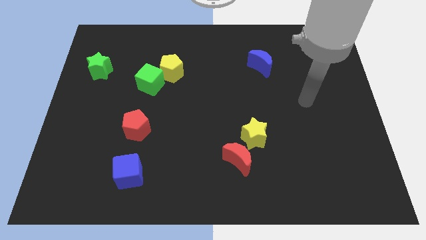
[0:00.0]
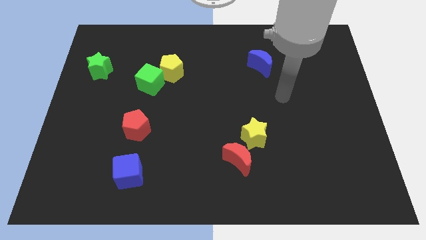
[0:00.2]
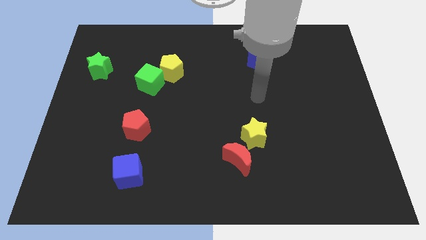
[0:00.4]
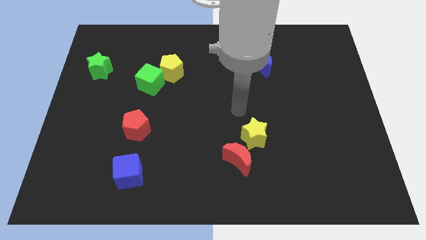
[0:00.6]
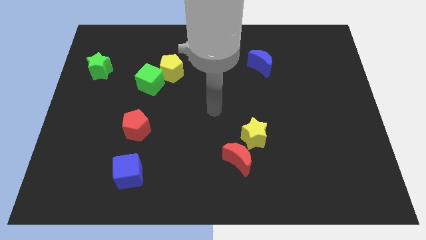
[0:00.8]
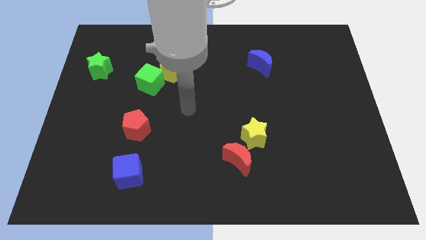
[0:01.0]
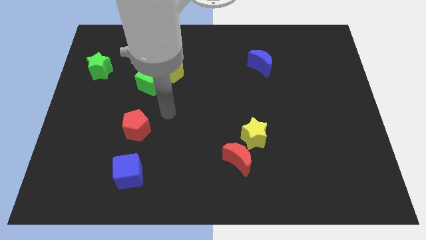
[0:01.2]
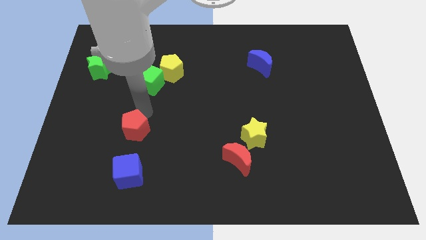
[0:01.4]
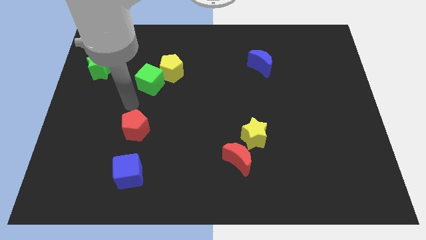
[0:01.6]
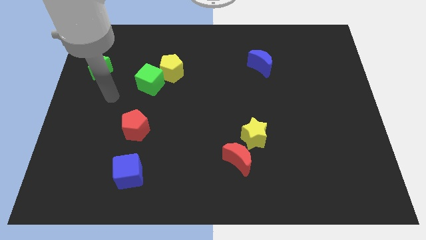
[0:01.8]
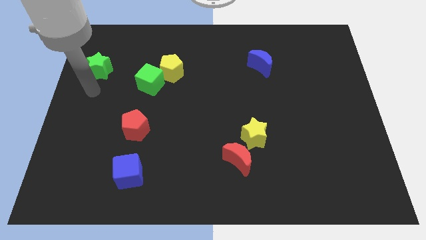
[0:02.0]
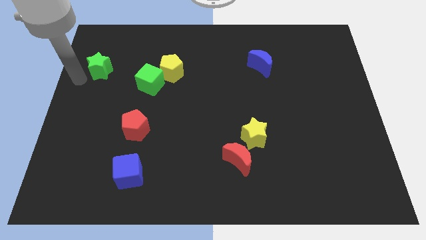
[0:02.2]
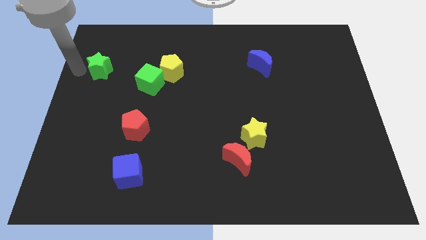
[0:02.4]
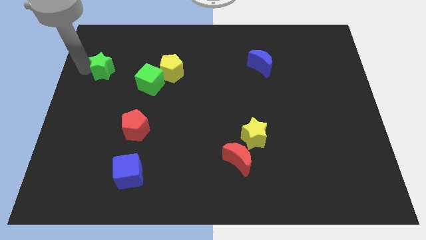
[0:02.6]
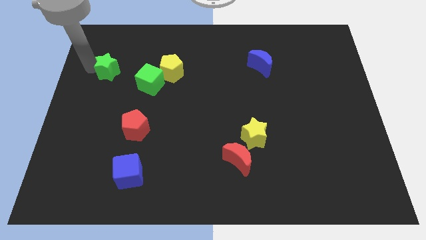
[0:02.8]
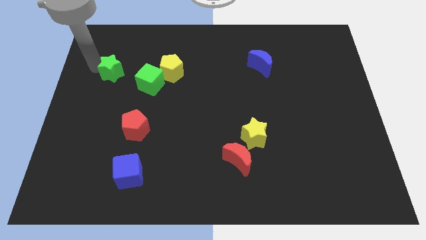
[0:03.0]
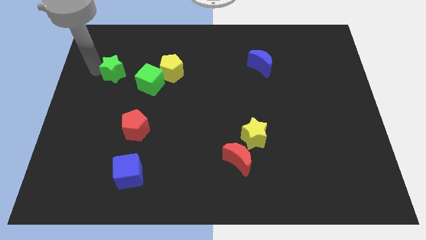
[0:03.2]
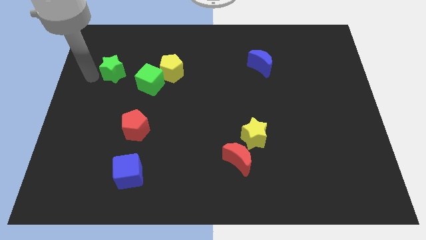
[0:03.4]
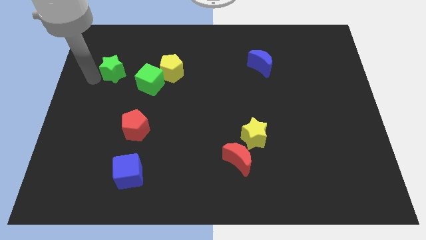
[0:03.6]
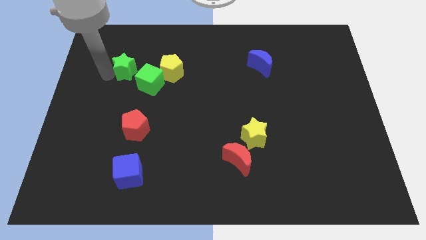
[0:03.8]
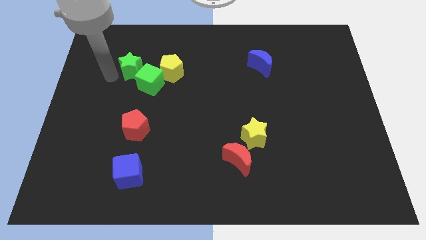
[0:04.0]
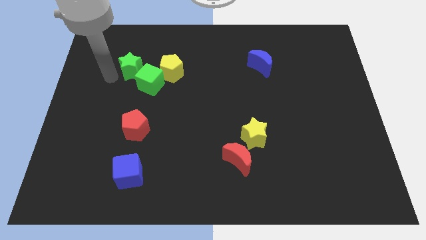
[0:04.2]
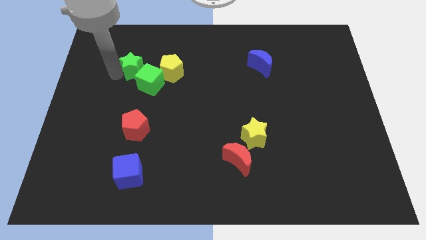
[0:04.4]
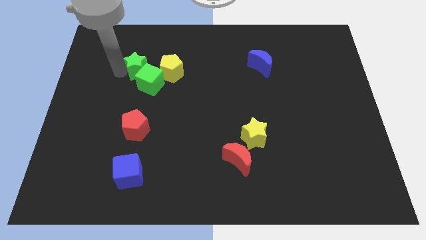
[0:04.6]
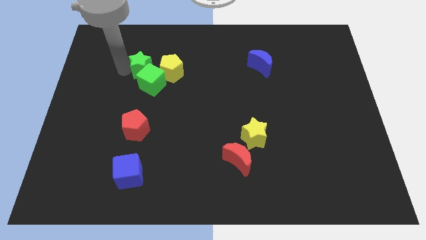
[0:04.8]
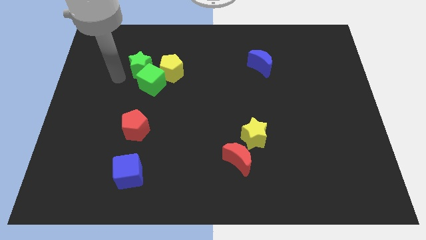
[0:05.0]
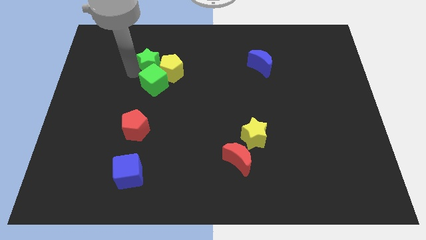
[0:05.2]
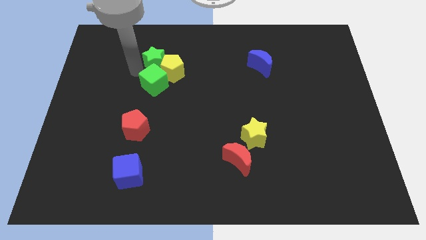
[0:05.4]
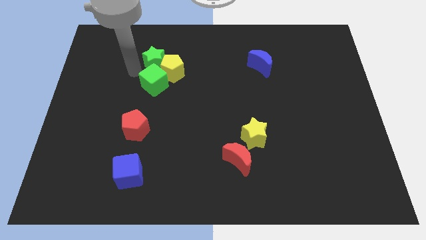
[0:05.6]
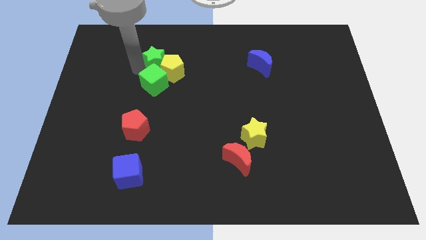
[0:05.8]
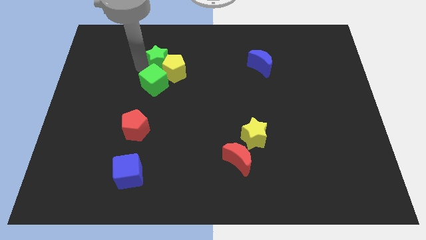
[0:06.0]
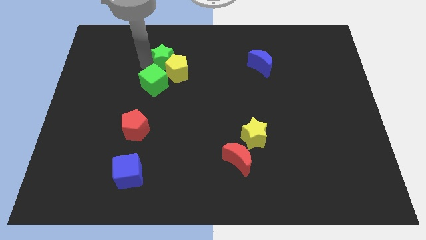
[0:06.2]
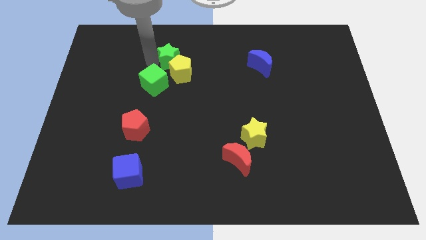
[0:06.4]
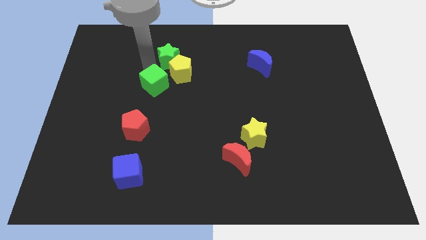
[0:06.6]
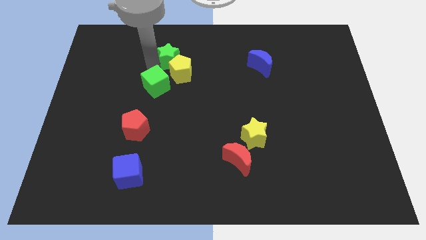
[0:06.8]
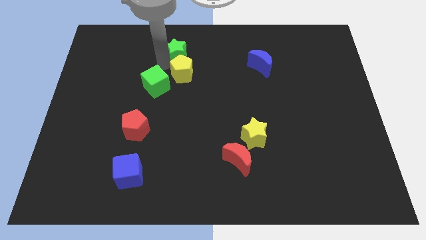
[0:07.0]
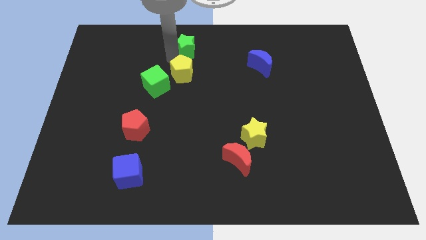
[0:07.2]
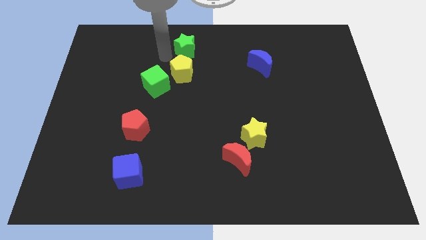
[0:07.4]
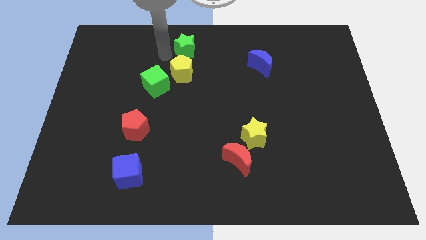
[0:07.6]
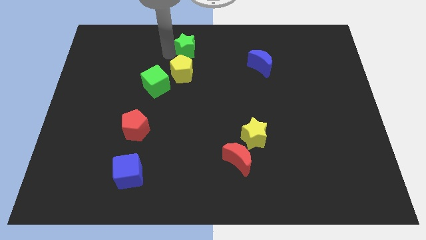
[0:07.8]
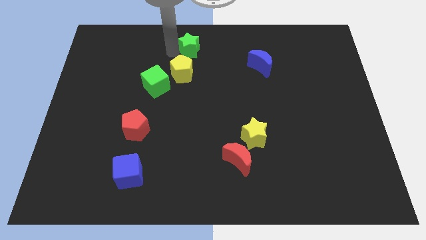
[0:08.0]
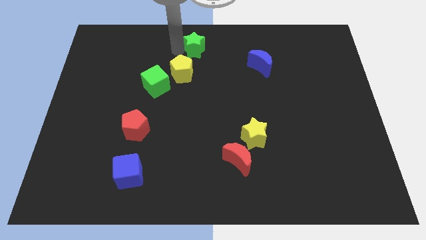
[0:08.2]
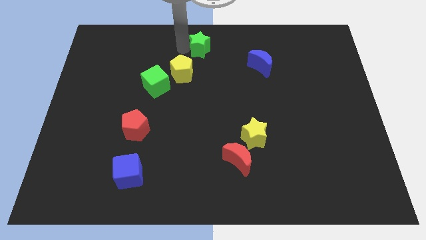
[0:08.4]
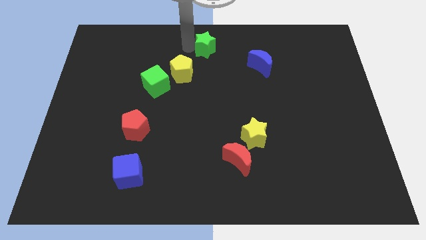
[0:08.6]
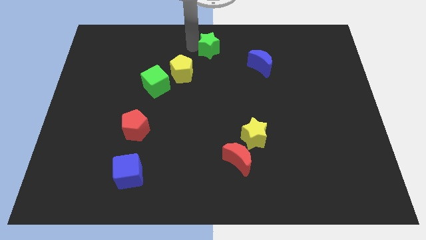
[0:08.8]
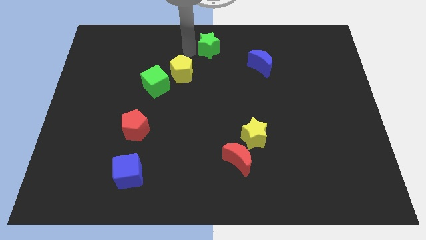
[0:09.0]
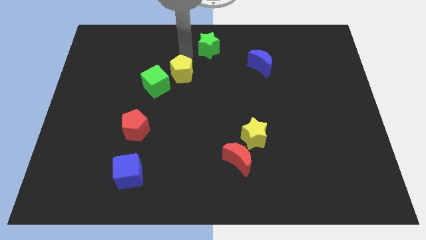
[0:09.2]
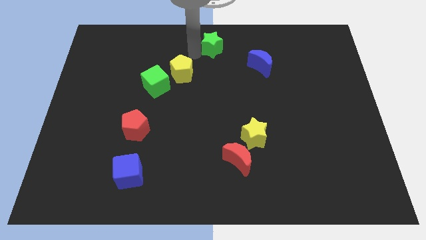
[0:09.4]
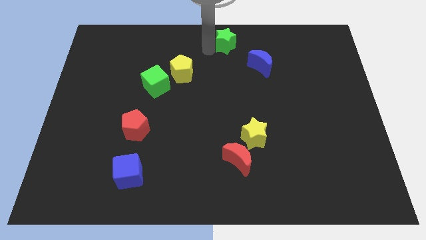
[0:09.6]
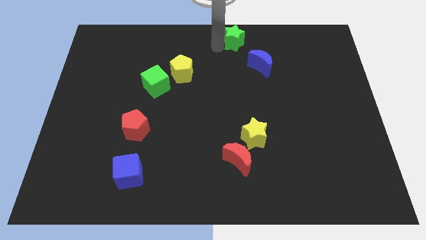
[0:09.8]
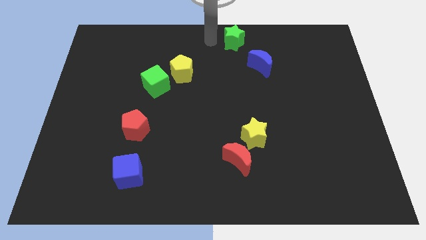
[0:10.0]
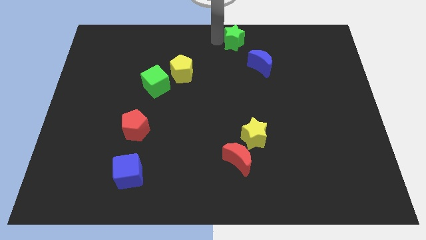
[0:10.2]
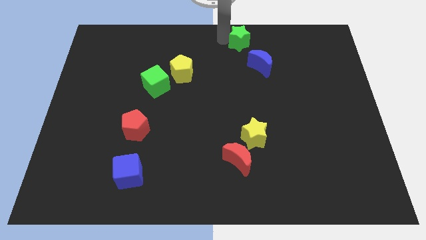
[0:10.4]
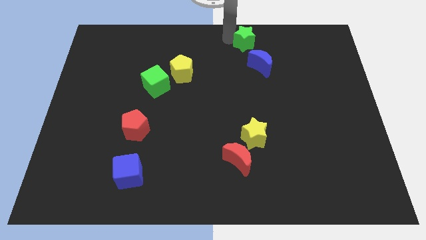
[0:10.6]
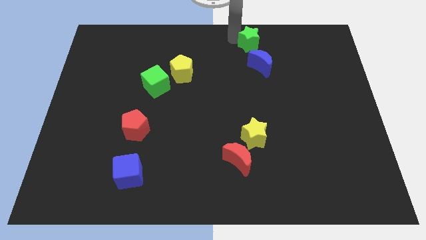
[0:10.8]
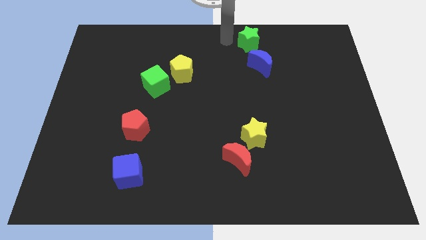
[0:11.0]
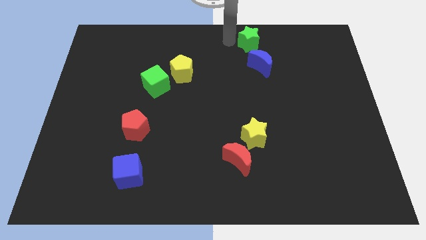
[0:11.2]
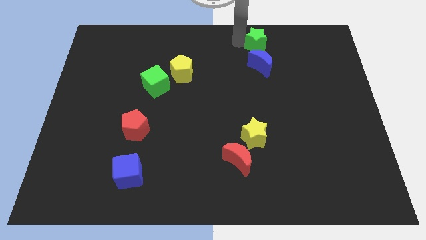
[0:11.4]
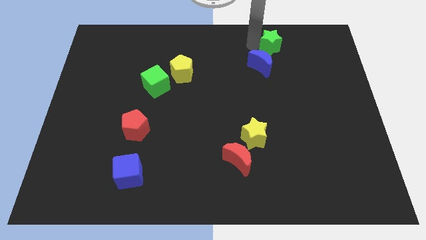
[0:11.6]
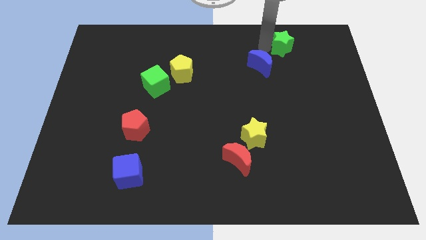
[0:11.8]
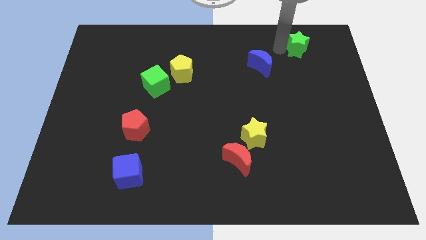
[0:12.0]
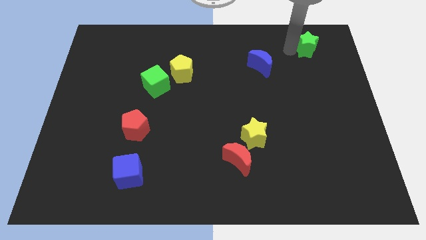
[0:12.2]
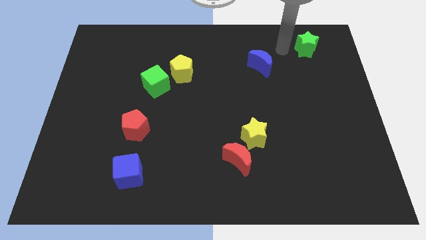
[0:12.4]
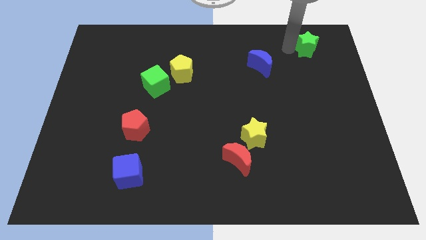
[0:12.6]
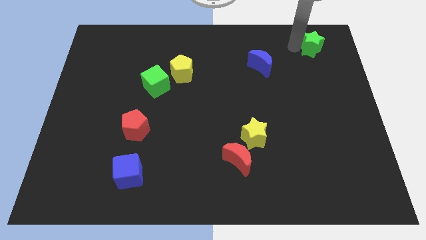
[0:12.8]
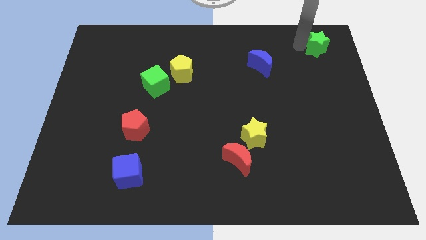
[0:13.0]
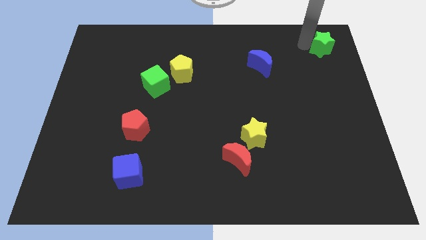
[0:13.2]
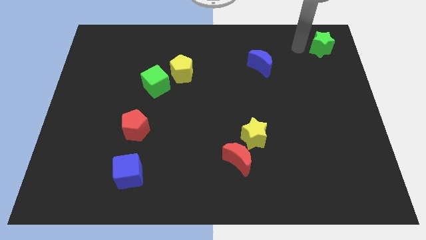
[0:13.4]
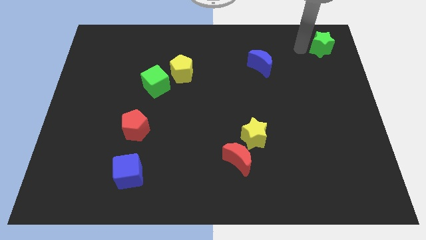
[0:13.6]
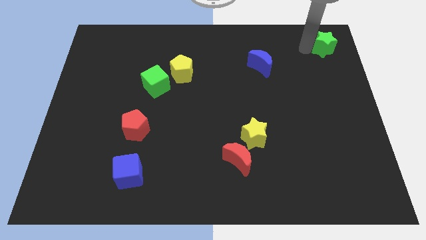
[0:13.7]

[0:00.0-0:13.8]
slide the green star to the top right of the board
